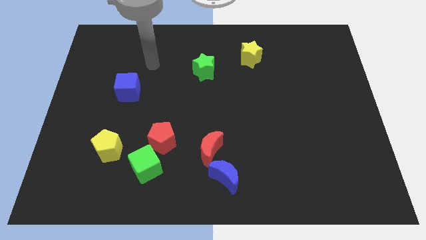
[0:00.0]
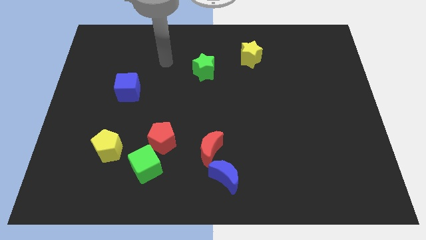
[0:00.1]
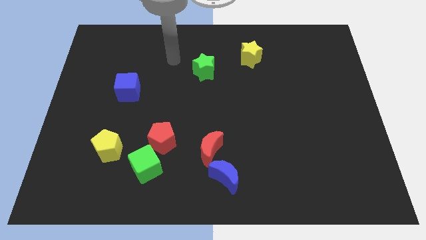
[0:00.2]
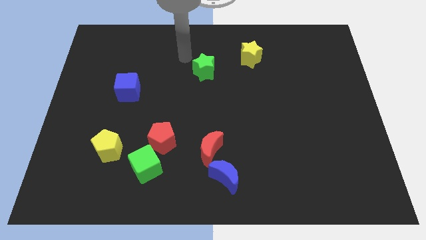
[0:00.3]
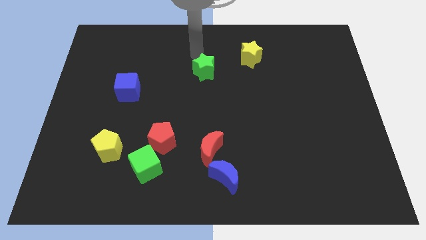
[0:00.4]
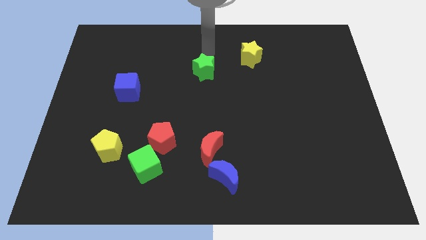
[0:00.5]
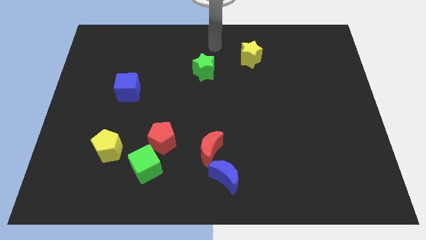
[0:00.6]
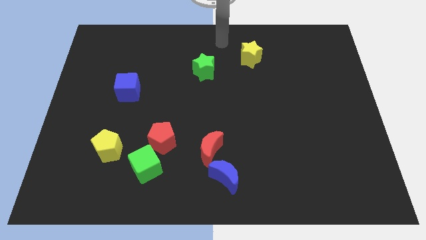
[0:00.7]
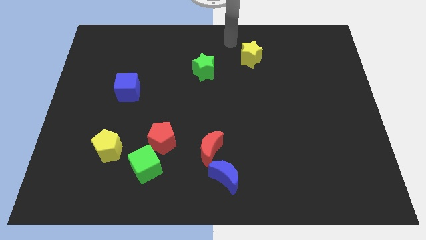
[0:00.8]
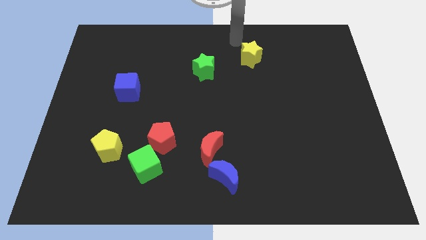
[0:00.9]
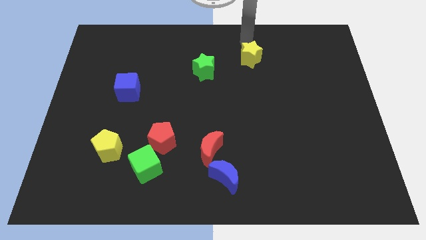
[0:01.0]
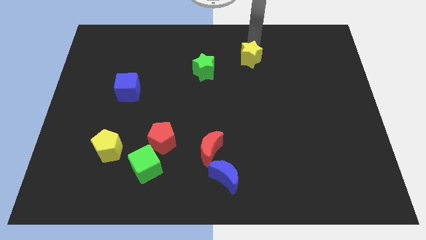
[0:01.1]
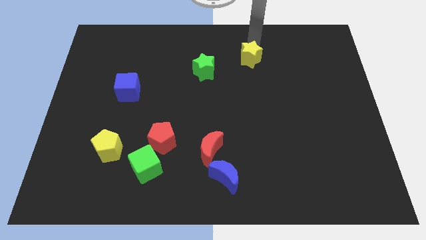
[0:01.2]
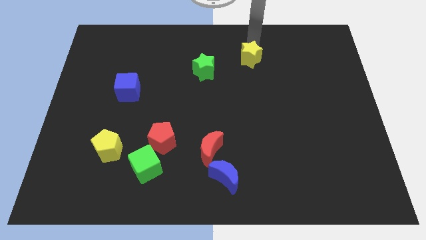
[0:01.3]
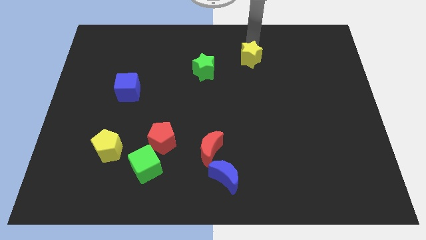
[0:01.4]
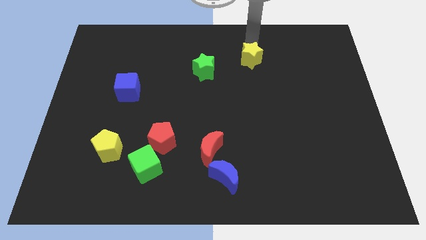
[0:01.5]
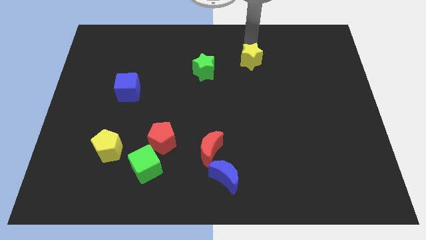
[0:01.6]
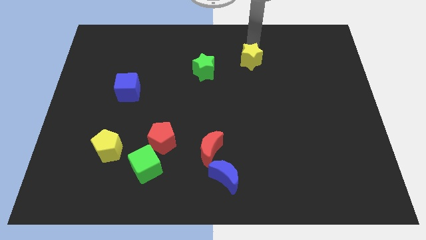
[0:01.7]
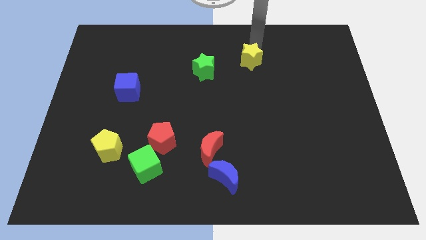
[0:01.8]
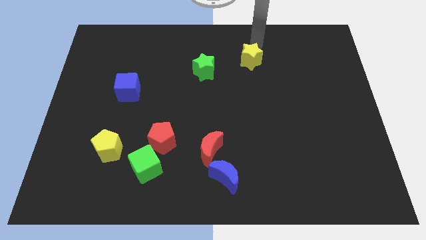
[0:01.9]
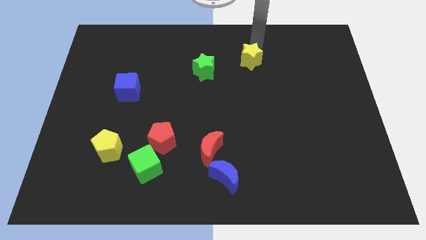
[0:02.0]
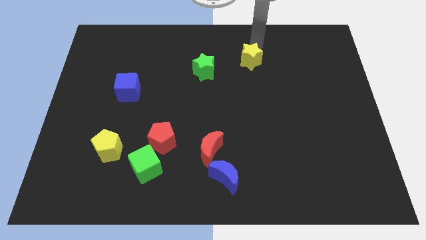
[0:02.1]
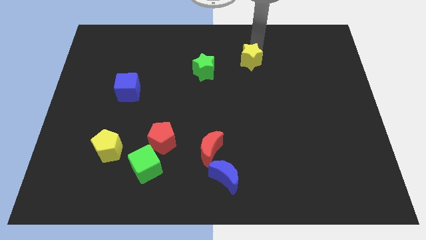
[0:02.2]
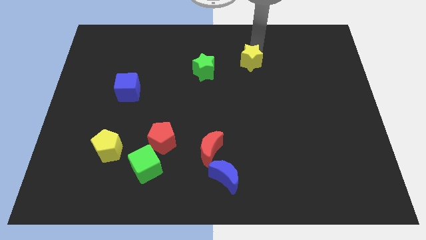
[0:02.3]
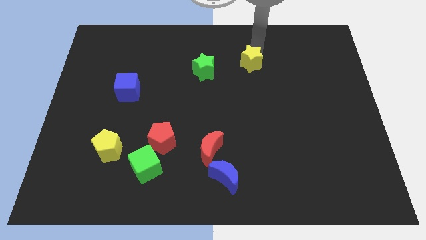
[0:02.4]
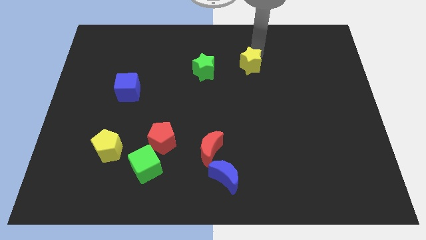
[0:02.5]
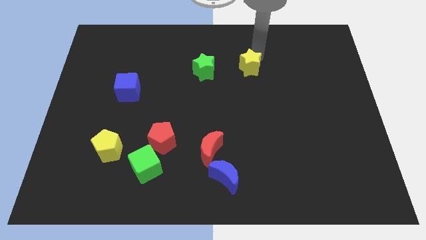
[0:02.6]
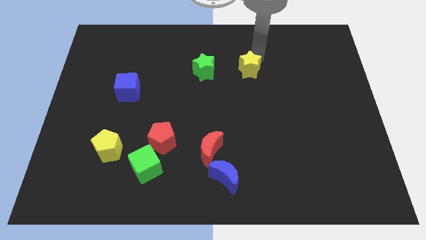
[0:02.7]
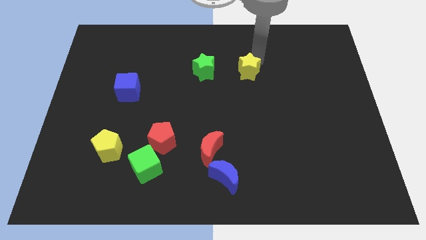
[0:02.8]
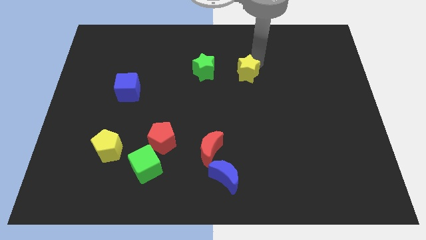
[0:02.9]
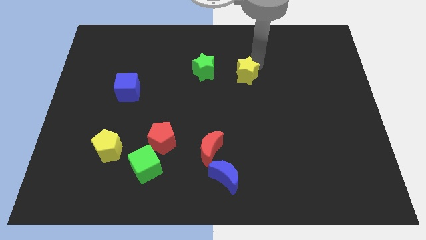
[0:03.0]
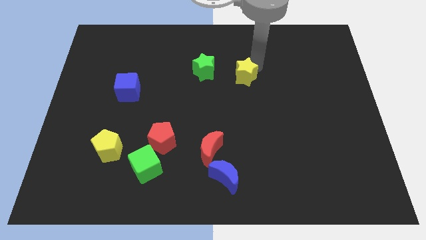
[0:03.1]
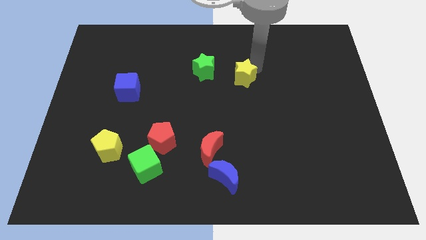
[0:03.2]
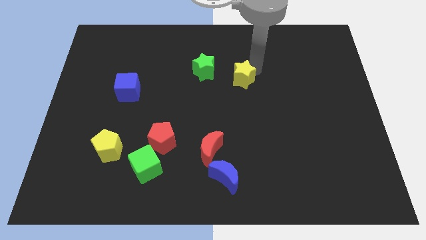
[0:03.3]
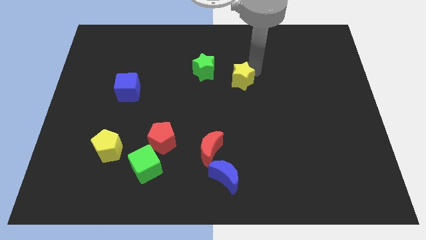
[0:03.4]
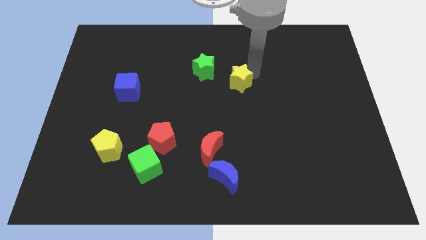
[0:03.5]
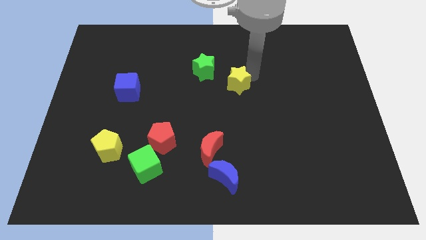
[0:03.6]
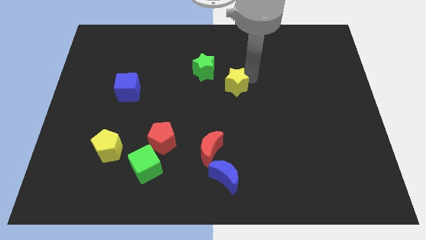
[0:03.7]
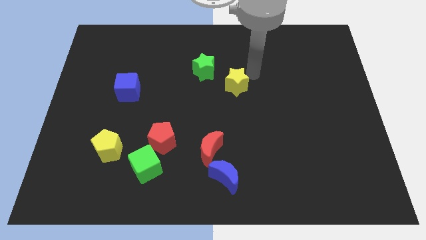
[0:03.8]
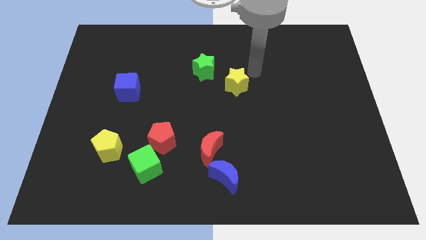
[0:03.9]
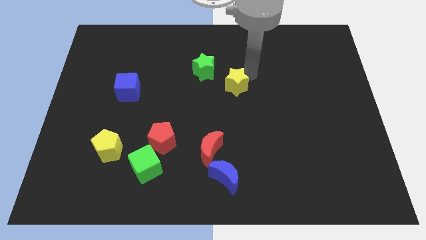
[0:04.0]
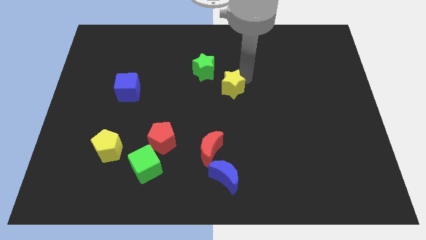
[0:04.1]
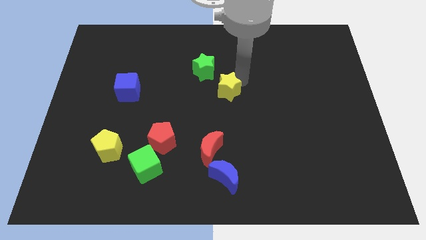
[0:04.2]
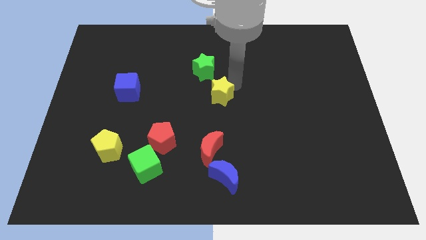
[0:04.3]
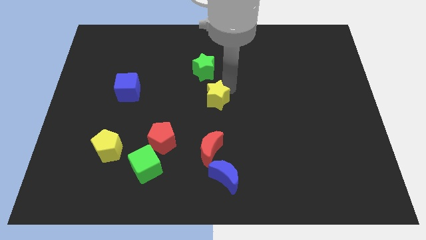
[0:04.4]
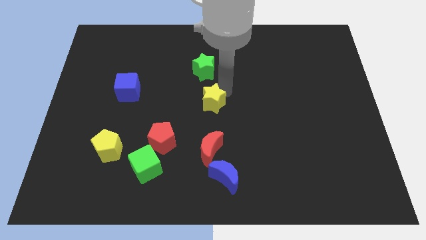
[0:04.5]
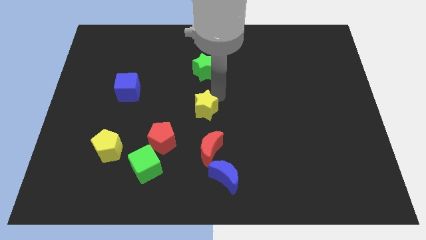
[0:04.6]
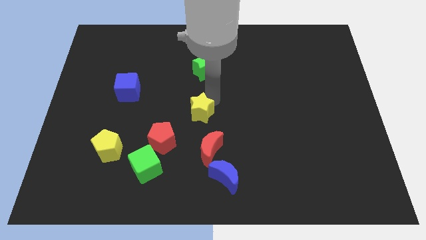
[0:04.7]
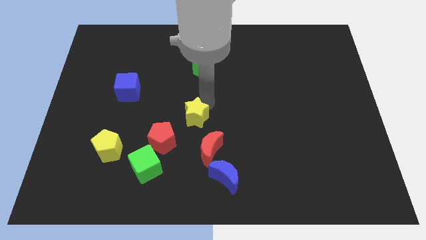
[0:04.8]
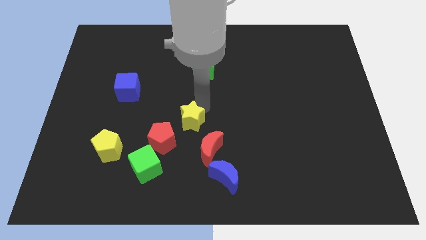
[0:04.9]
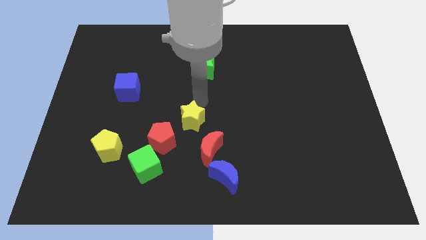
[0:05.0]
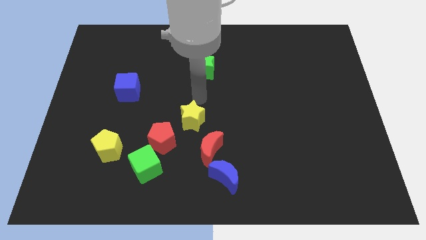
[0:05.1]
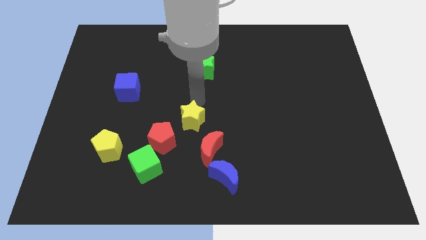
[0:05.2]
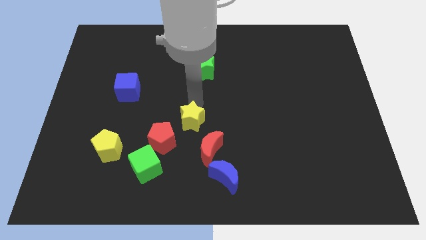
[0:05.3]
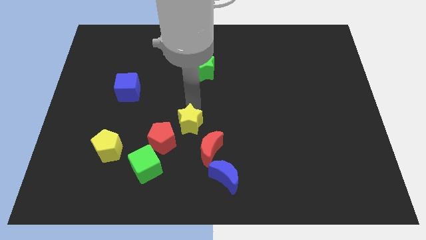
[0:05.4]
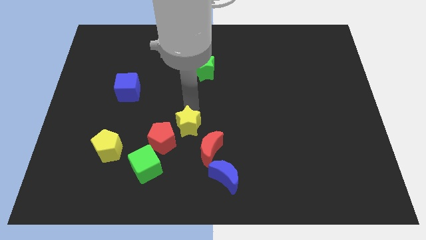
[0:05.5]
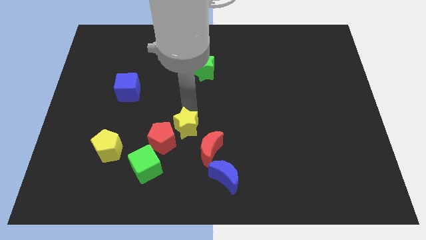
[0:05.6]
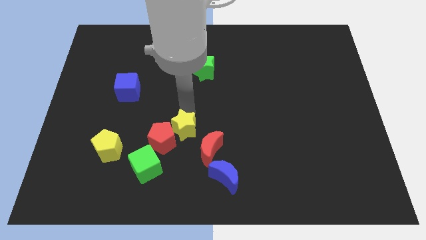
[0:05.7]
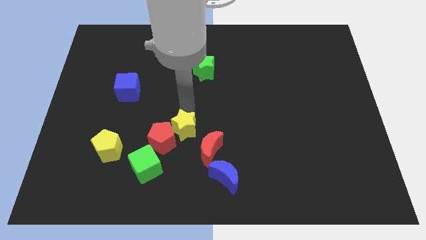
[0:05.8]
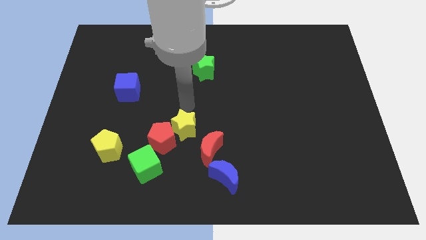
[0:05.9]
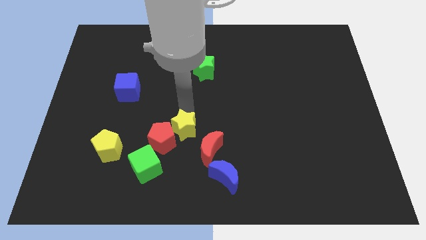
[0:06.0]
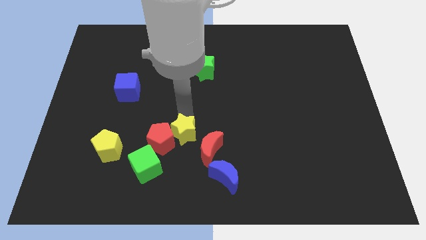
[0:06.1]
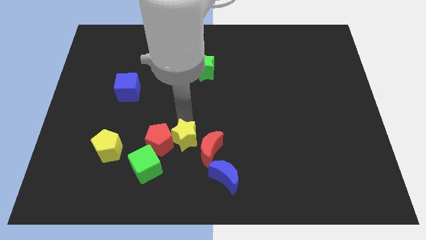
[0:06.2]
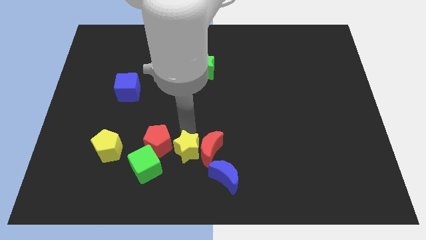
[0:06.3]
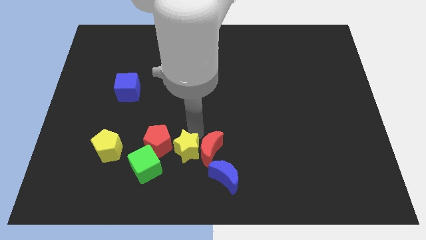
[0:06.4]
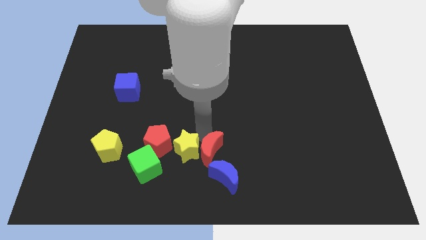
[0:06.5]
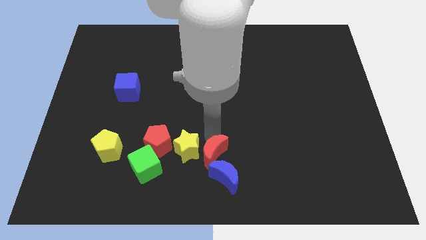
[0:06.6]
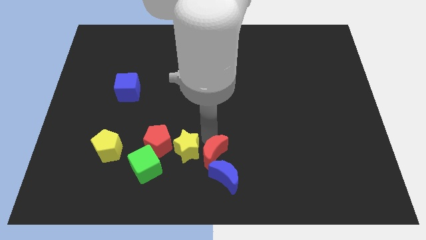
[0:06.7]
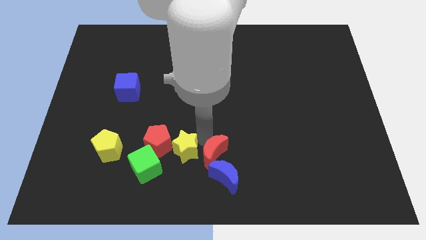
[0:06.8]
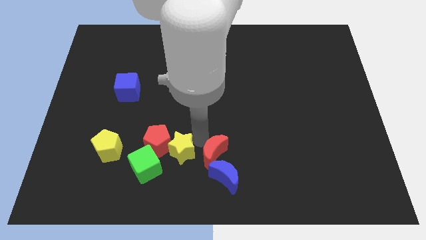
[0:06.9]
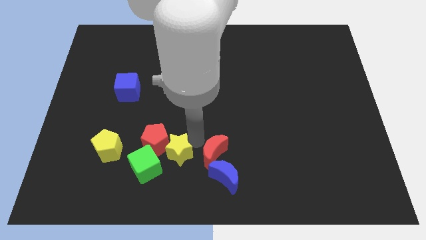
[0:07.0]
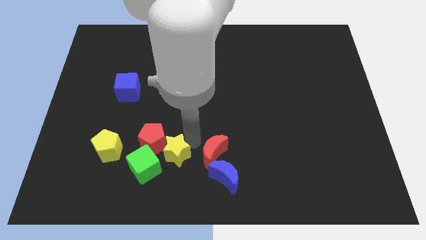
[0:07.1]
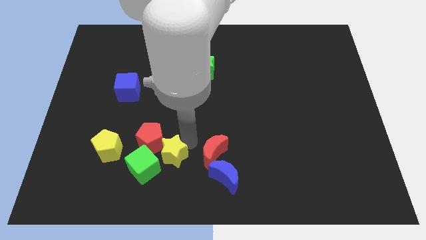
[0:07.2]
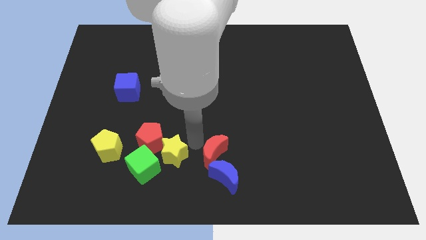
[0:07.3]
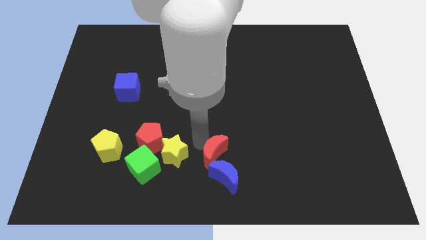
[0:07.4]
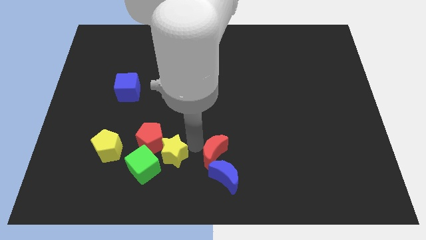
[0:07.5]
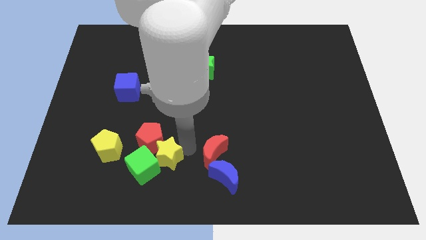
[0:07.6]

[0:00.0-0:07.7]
put the yellow star next to the green cube
